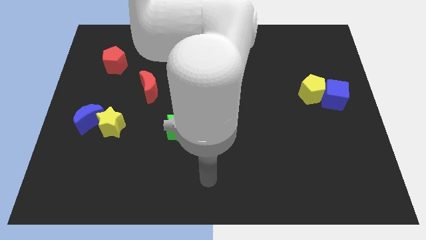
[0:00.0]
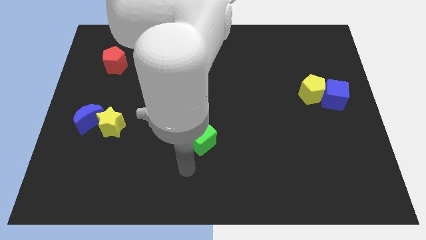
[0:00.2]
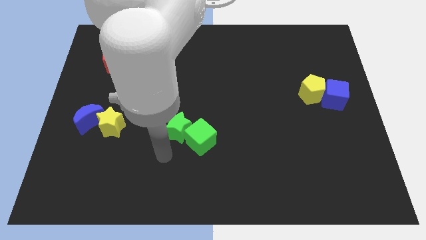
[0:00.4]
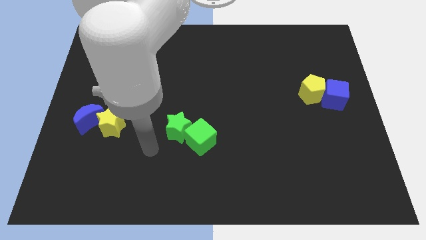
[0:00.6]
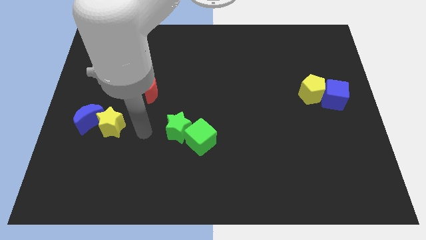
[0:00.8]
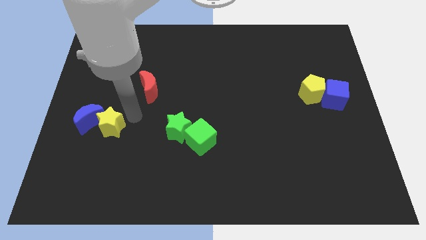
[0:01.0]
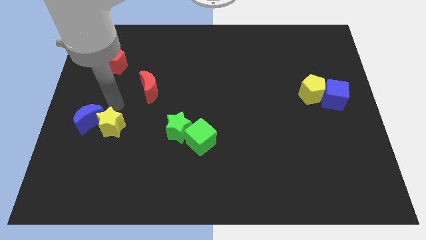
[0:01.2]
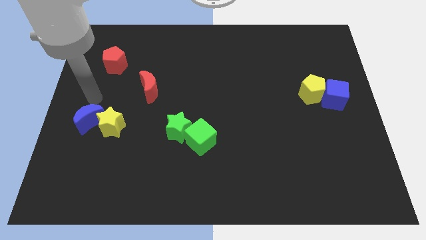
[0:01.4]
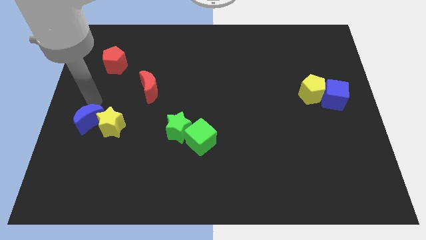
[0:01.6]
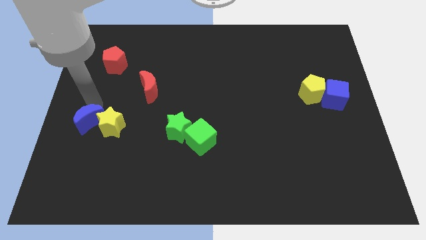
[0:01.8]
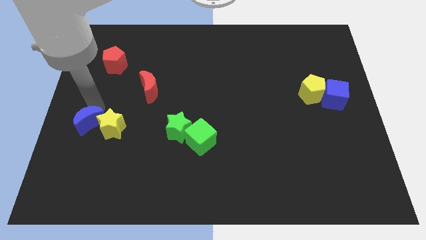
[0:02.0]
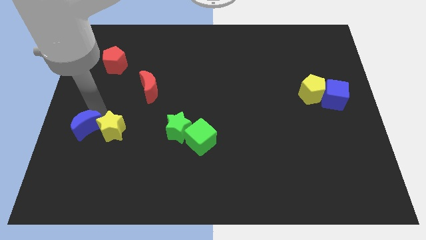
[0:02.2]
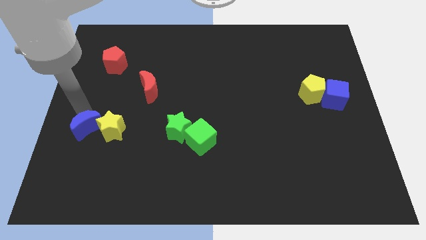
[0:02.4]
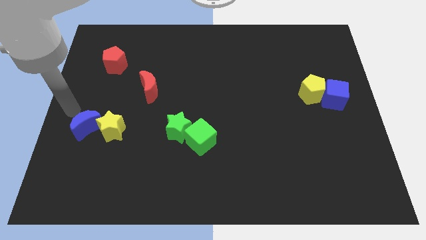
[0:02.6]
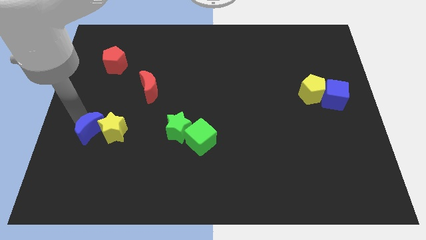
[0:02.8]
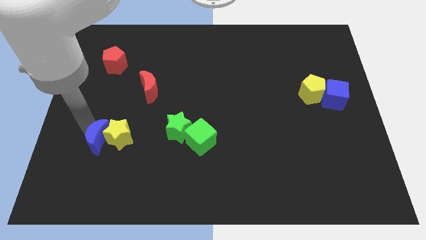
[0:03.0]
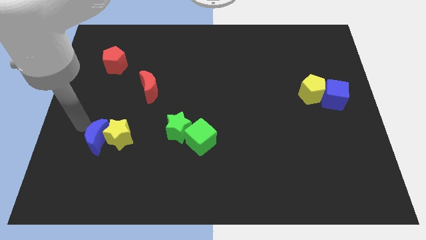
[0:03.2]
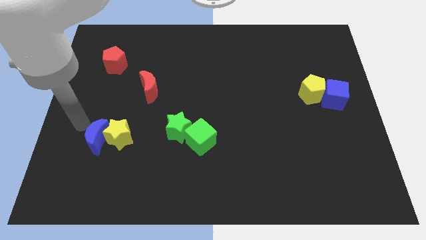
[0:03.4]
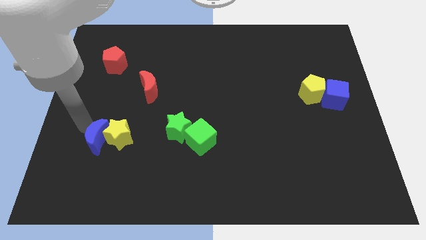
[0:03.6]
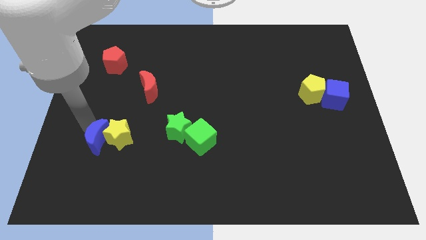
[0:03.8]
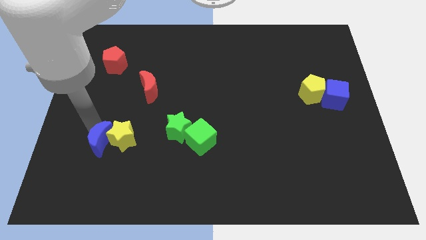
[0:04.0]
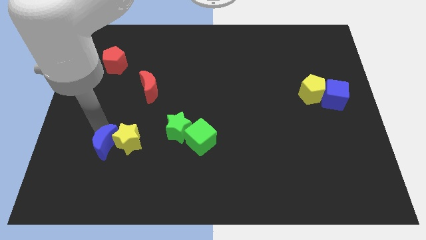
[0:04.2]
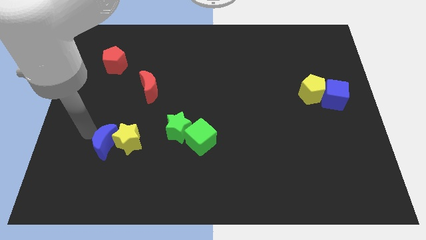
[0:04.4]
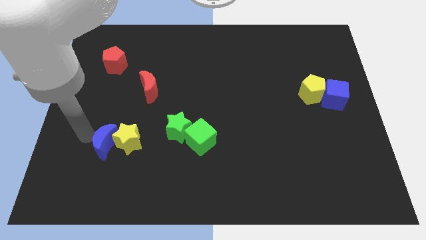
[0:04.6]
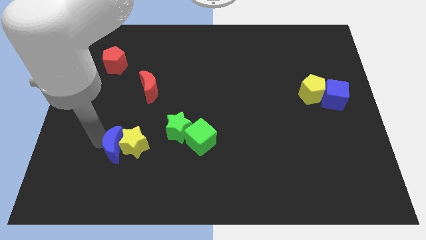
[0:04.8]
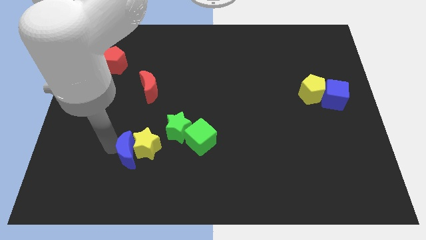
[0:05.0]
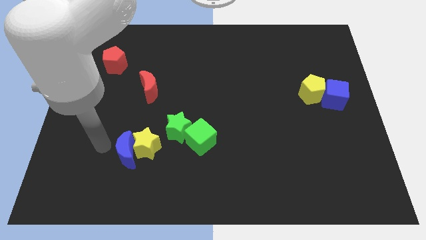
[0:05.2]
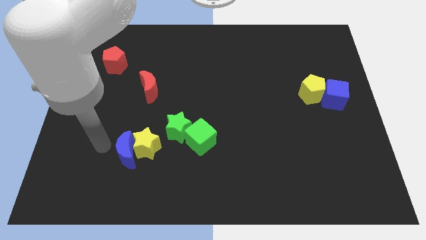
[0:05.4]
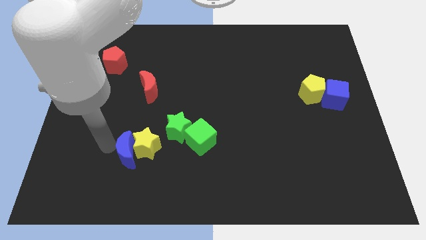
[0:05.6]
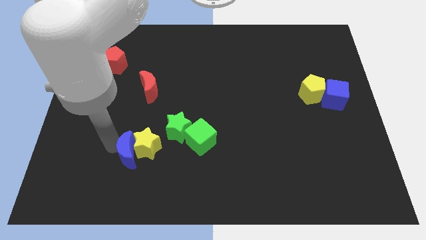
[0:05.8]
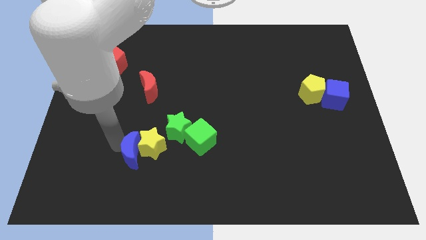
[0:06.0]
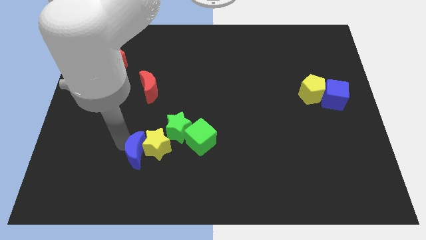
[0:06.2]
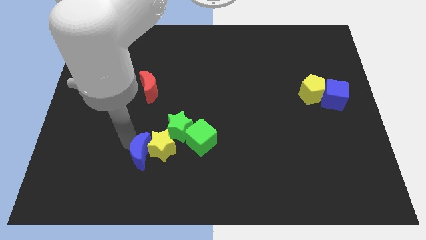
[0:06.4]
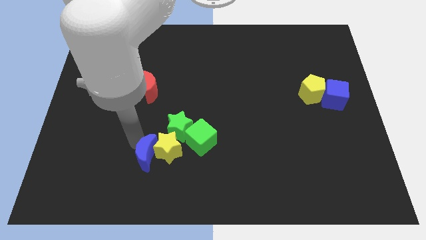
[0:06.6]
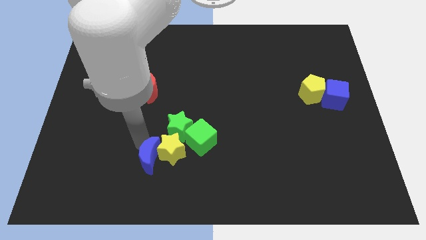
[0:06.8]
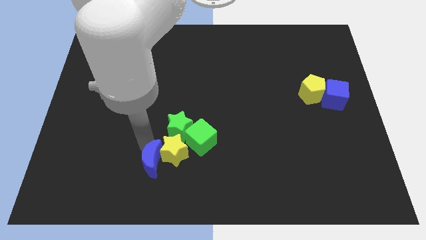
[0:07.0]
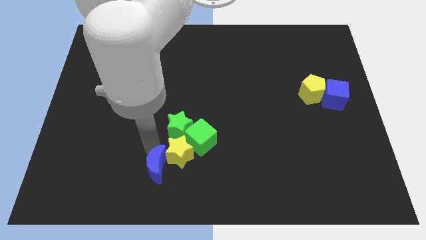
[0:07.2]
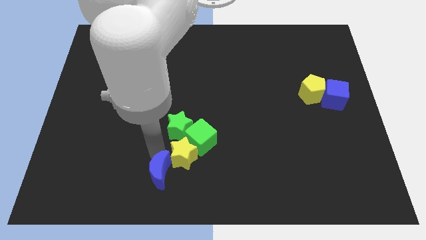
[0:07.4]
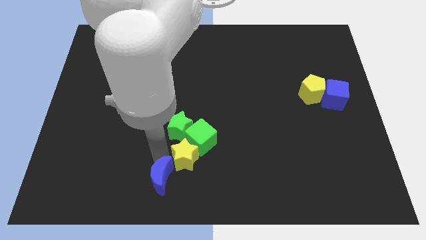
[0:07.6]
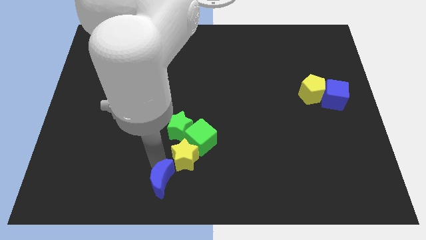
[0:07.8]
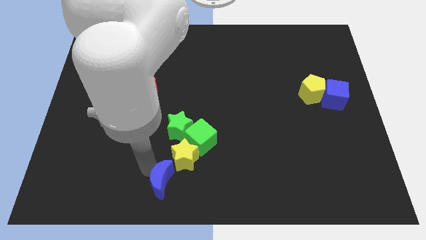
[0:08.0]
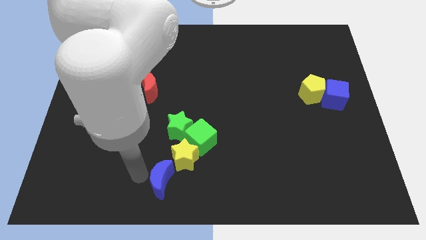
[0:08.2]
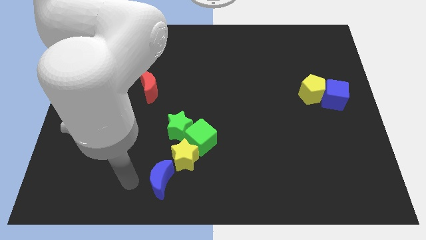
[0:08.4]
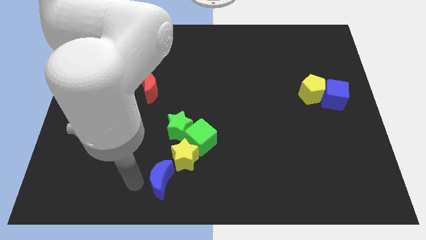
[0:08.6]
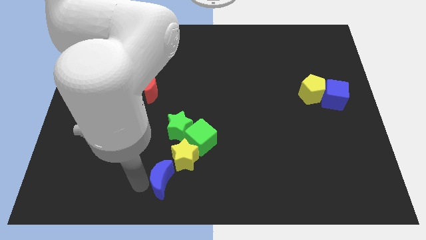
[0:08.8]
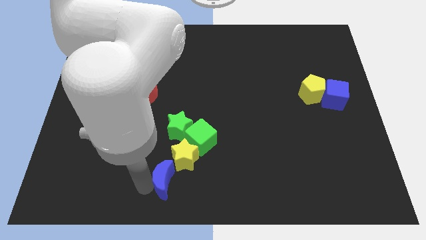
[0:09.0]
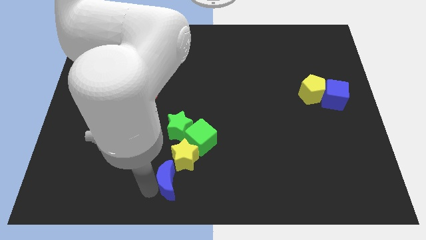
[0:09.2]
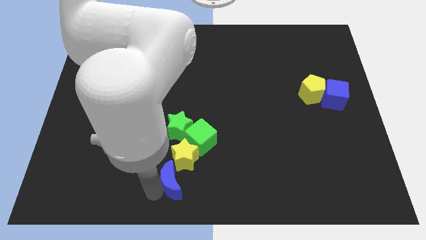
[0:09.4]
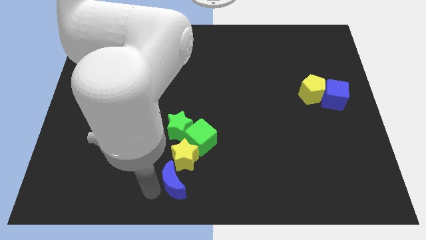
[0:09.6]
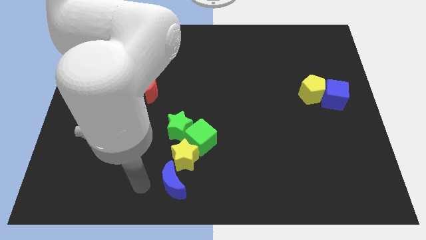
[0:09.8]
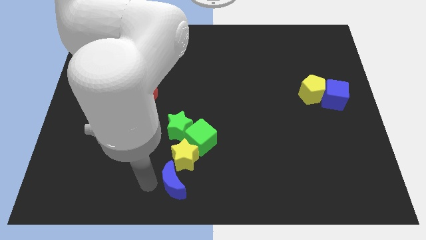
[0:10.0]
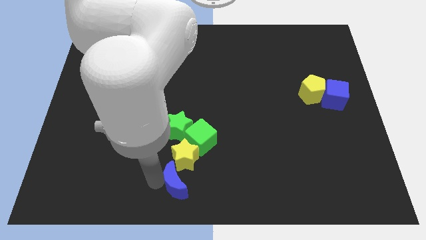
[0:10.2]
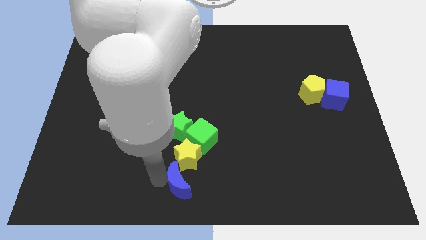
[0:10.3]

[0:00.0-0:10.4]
push the blue moon to the bottom side of the green cube

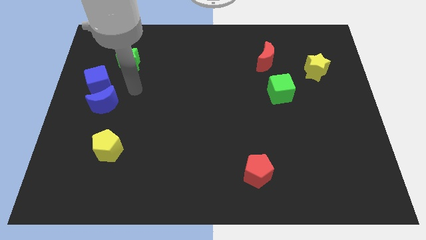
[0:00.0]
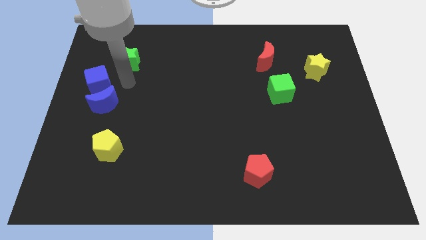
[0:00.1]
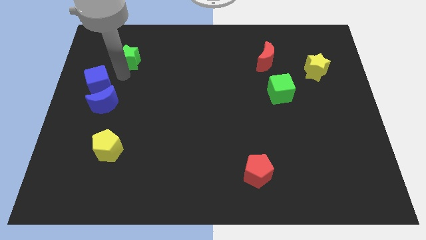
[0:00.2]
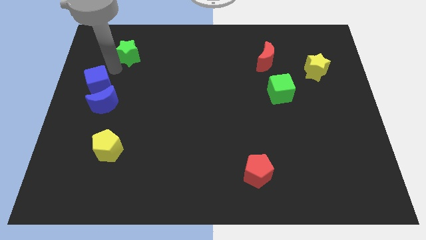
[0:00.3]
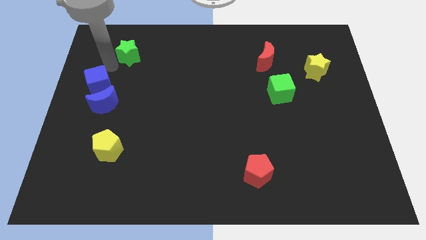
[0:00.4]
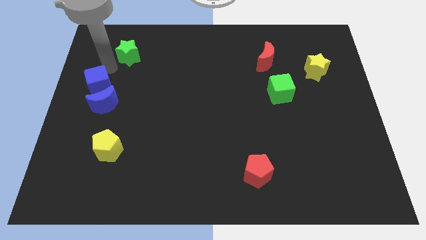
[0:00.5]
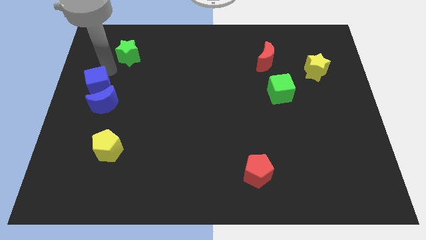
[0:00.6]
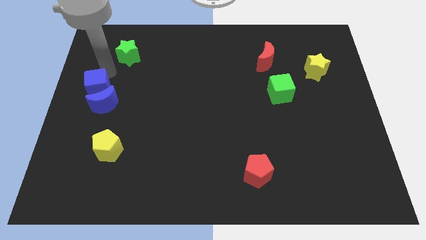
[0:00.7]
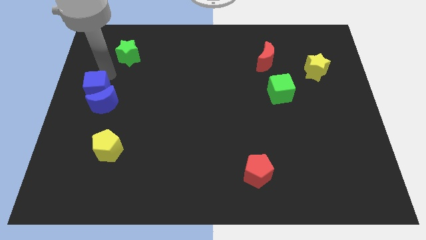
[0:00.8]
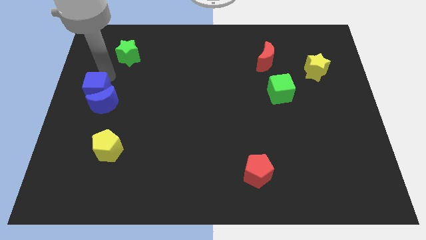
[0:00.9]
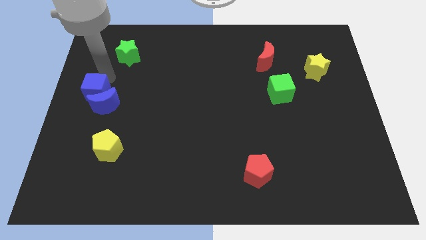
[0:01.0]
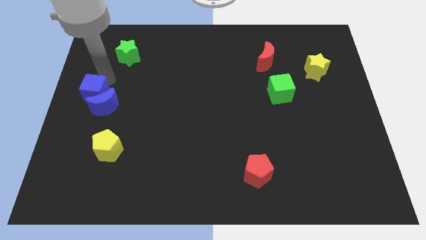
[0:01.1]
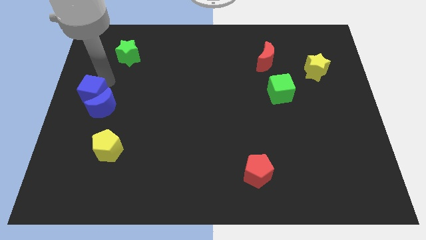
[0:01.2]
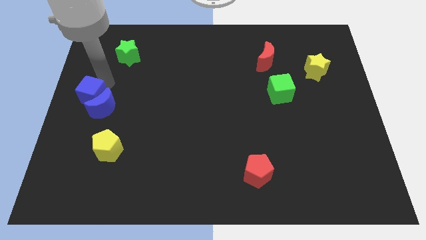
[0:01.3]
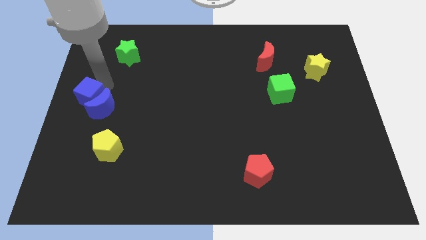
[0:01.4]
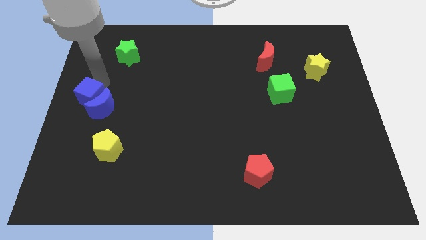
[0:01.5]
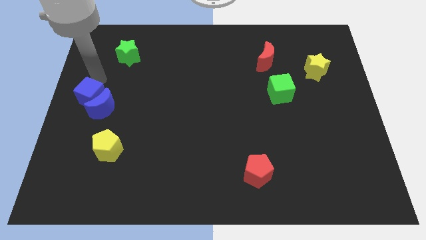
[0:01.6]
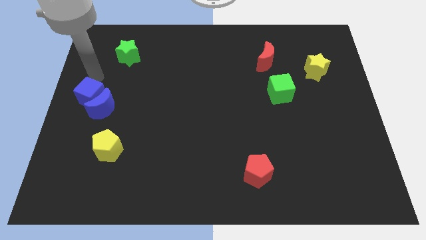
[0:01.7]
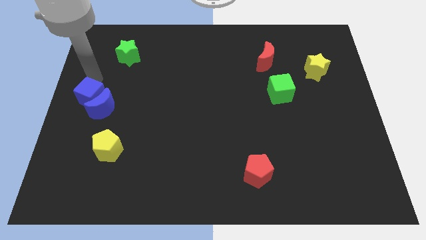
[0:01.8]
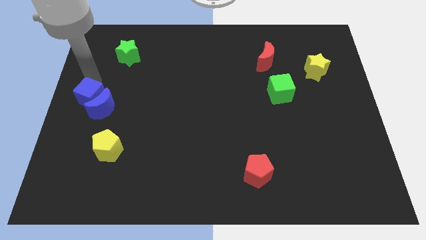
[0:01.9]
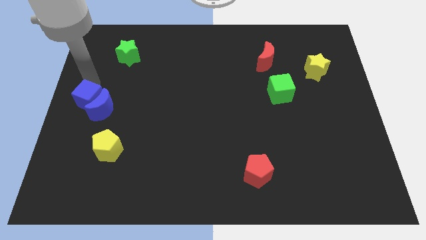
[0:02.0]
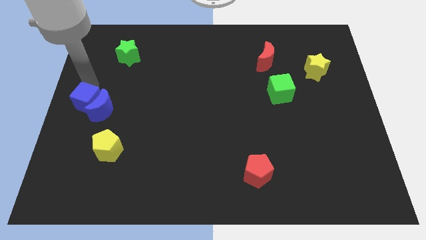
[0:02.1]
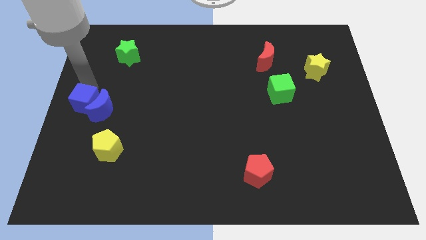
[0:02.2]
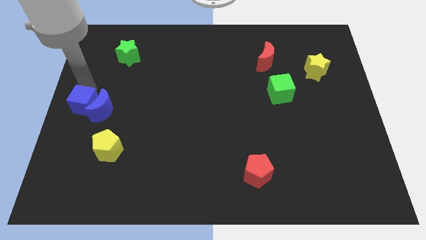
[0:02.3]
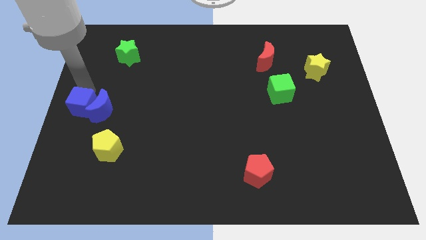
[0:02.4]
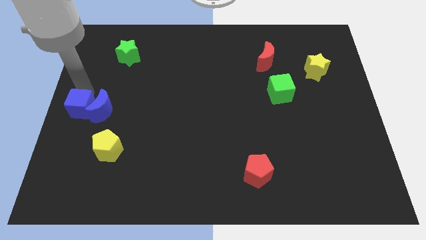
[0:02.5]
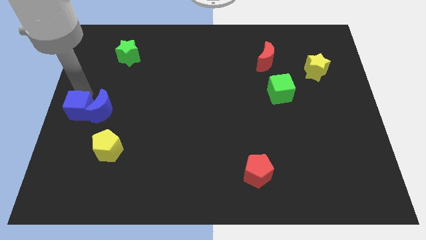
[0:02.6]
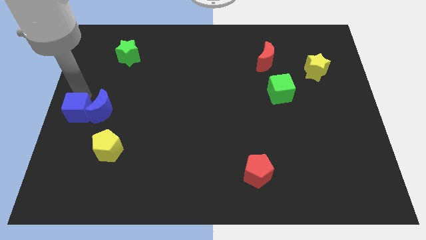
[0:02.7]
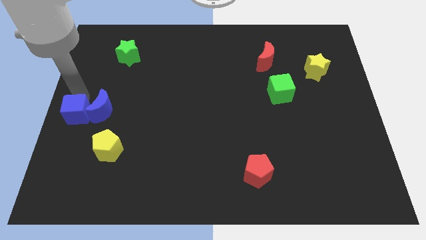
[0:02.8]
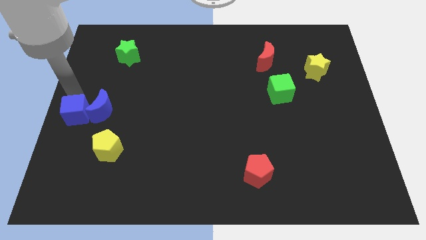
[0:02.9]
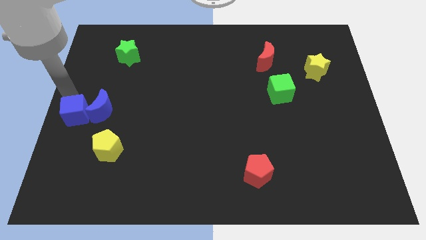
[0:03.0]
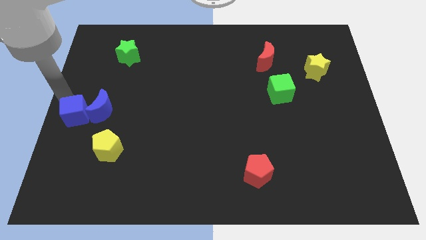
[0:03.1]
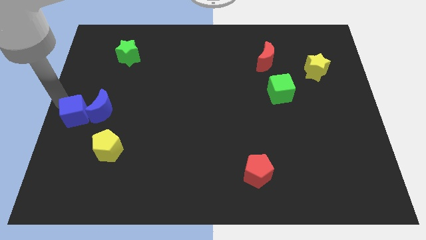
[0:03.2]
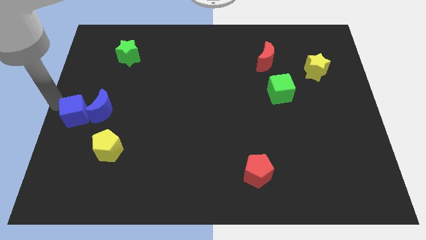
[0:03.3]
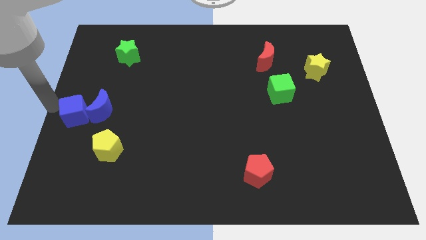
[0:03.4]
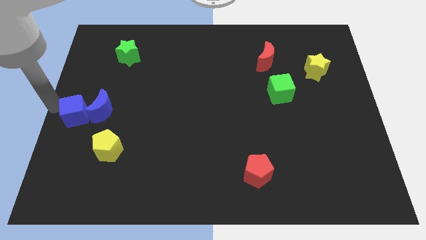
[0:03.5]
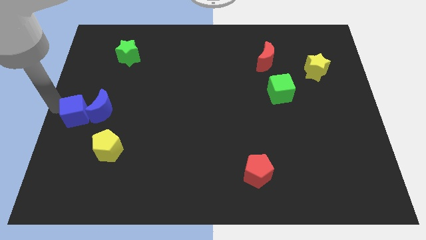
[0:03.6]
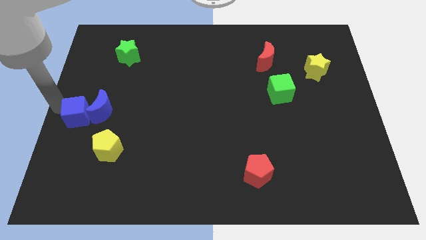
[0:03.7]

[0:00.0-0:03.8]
slide the blue cube to the top left side of the yellow pentagon
